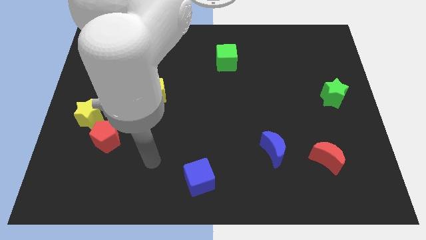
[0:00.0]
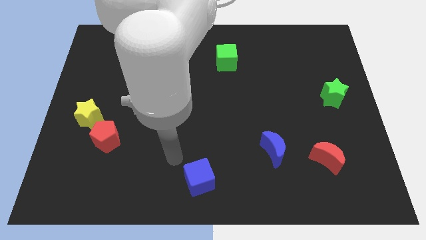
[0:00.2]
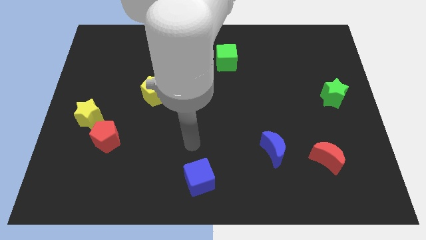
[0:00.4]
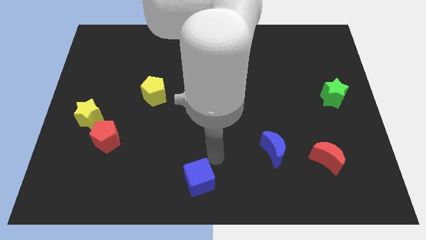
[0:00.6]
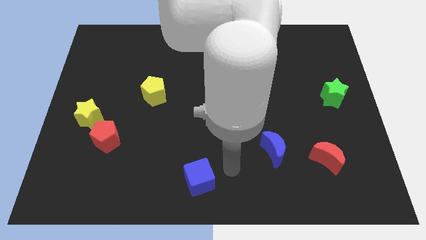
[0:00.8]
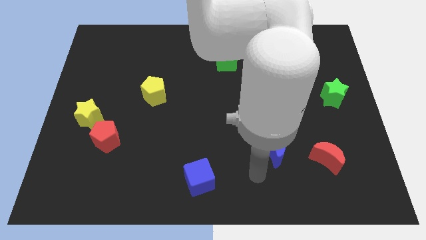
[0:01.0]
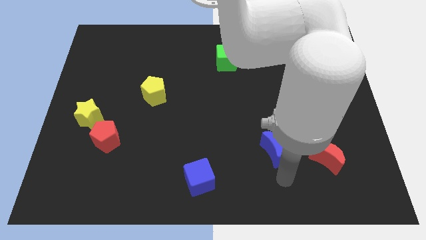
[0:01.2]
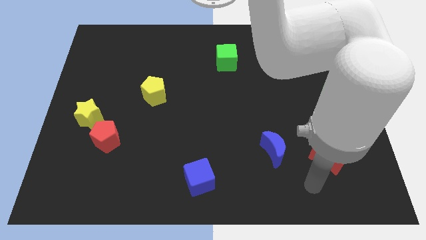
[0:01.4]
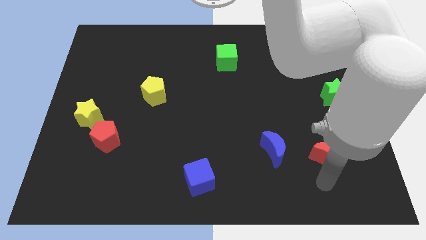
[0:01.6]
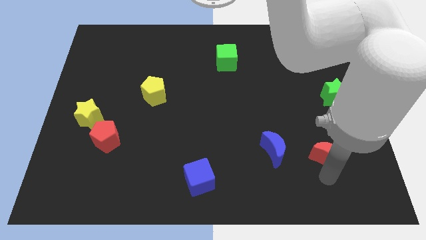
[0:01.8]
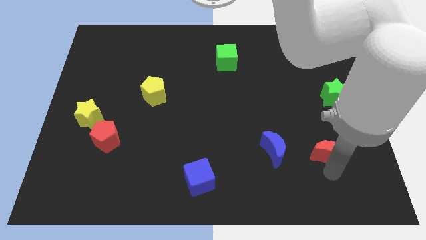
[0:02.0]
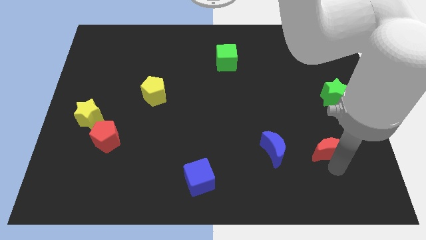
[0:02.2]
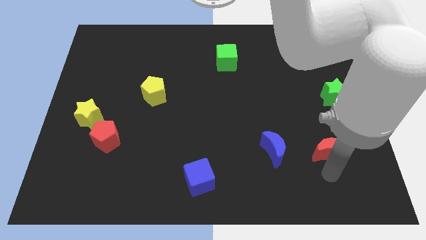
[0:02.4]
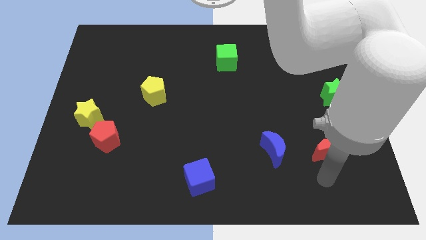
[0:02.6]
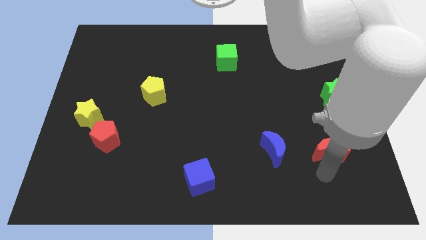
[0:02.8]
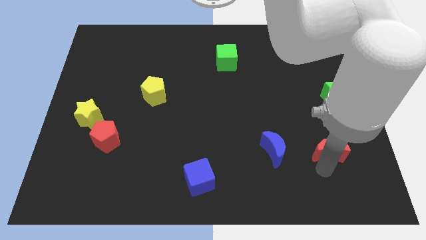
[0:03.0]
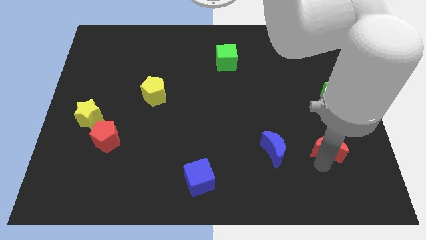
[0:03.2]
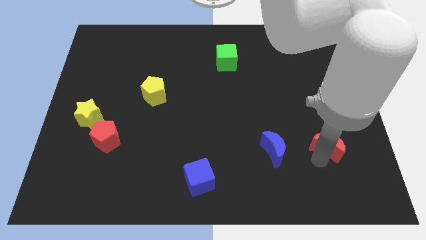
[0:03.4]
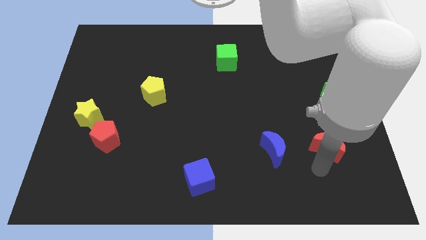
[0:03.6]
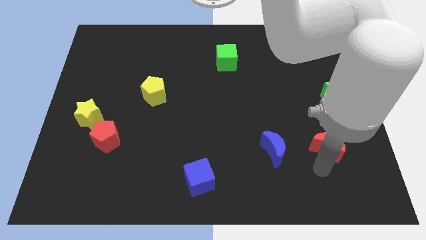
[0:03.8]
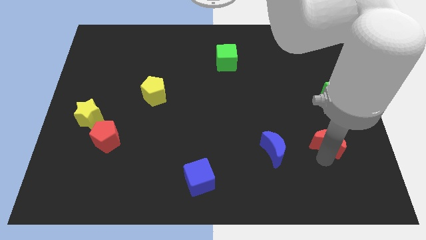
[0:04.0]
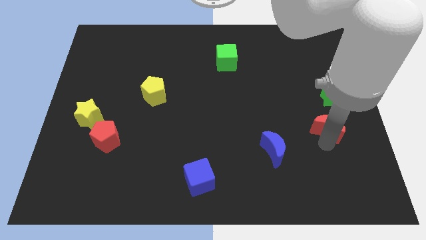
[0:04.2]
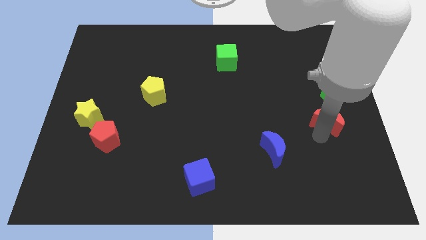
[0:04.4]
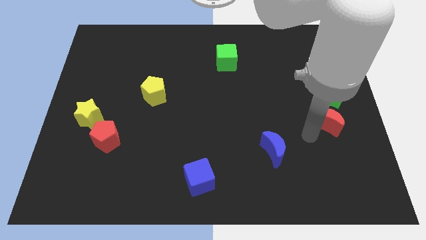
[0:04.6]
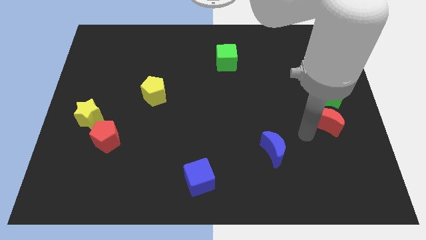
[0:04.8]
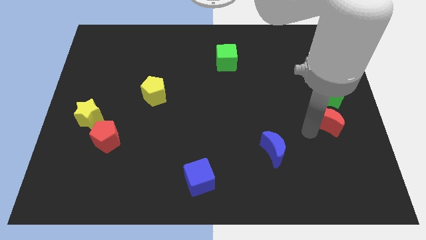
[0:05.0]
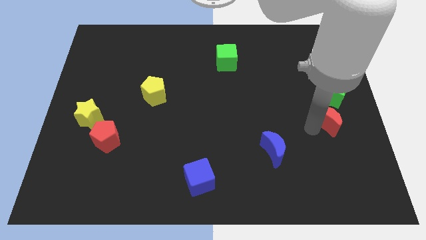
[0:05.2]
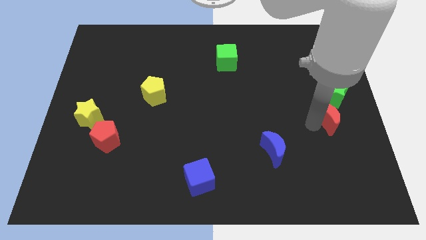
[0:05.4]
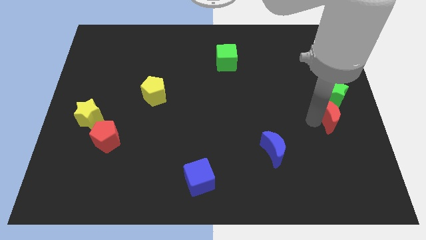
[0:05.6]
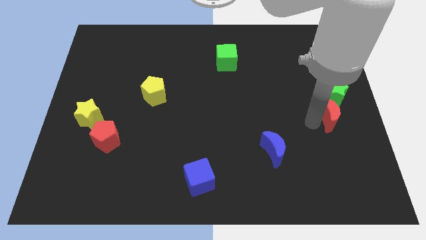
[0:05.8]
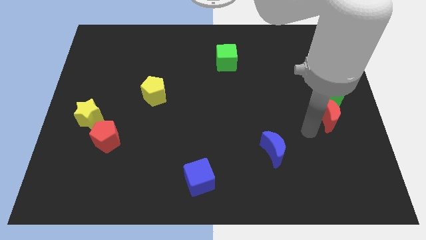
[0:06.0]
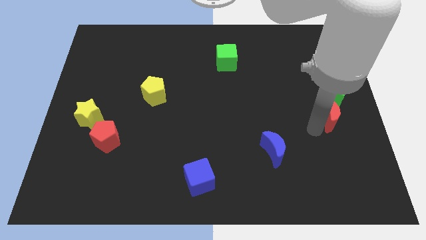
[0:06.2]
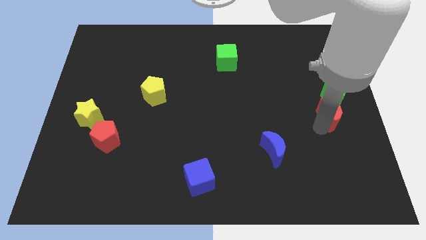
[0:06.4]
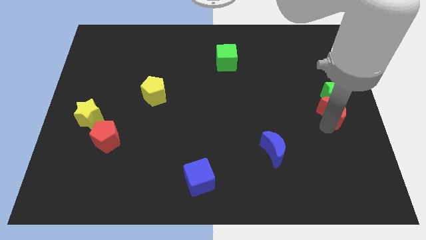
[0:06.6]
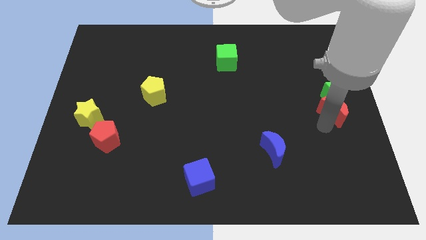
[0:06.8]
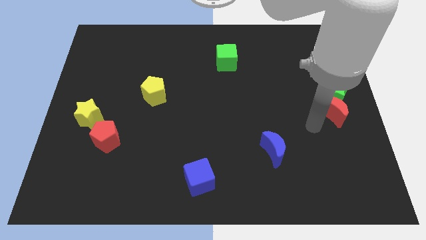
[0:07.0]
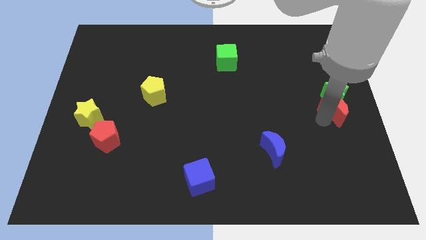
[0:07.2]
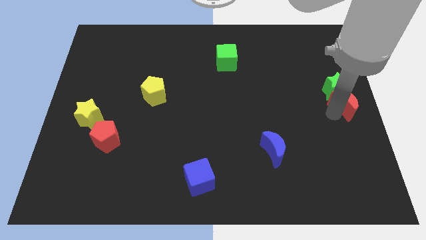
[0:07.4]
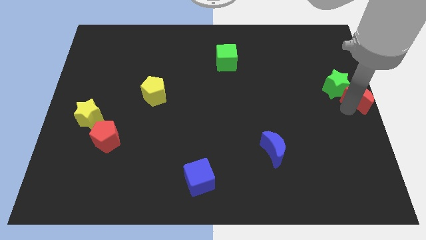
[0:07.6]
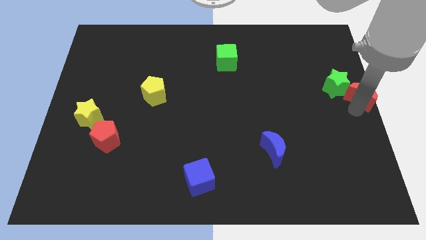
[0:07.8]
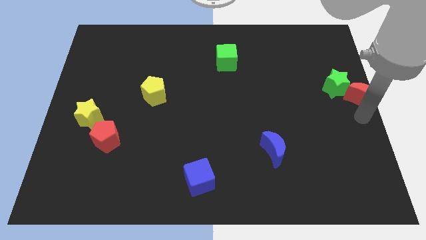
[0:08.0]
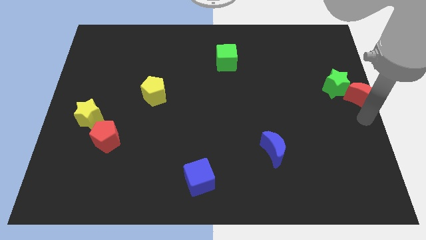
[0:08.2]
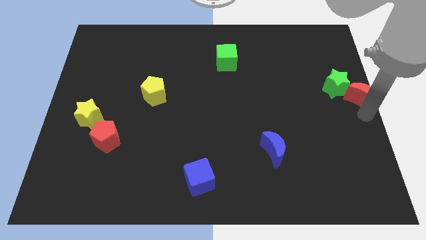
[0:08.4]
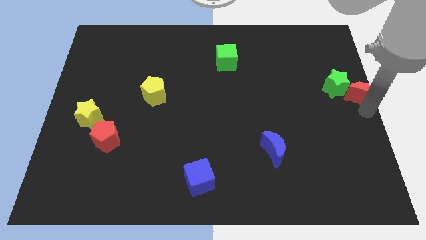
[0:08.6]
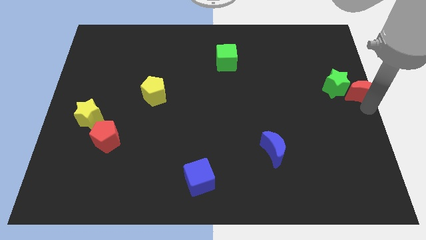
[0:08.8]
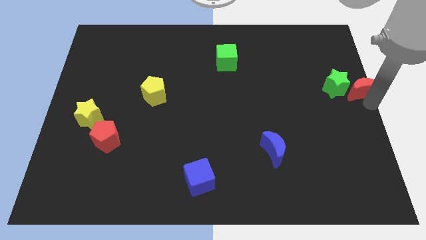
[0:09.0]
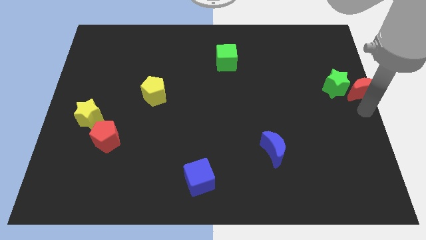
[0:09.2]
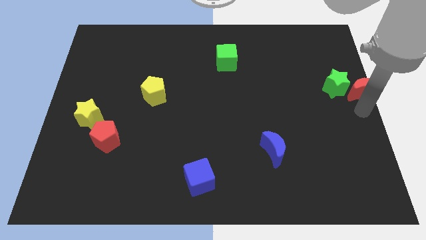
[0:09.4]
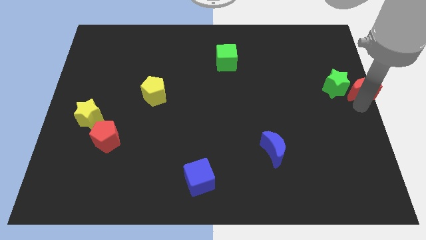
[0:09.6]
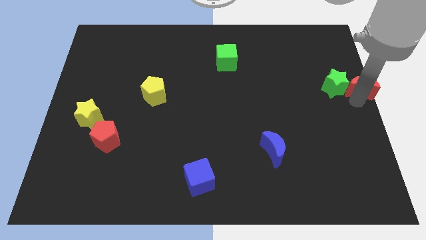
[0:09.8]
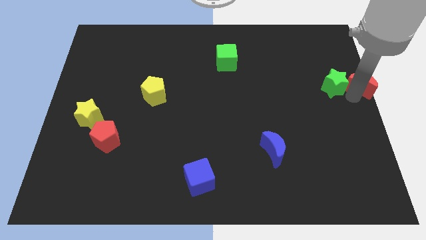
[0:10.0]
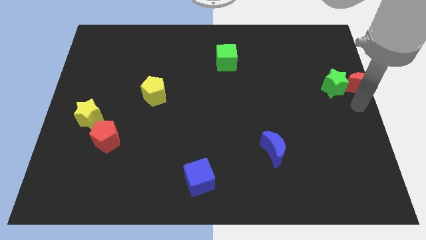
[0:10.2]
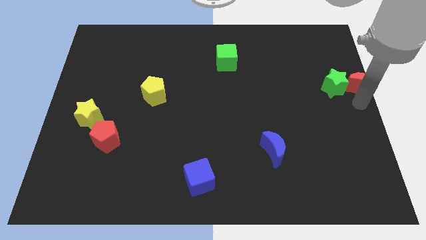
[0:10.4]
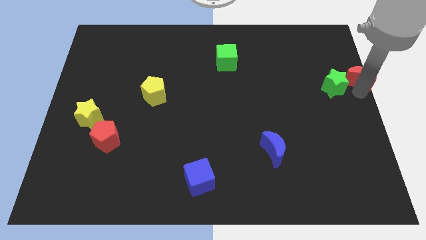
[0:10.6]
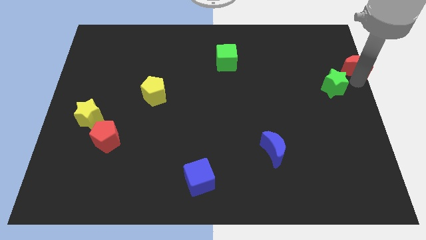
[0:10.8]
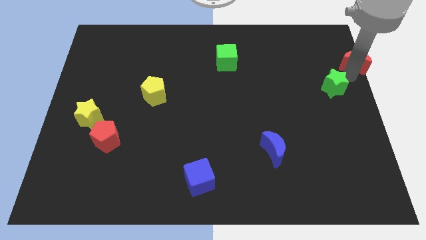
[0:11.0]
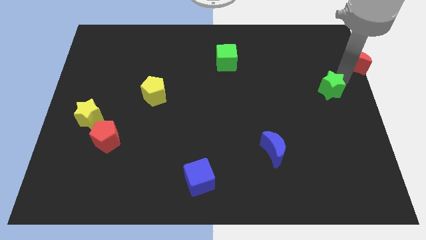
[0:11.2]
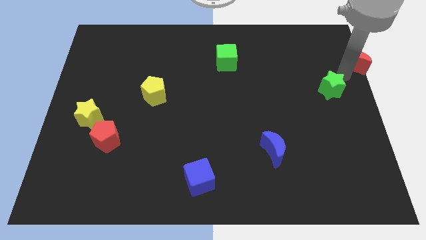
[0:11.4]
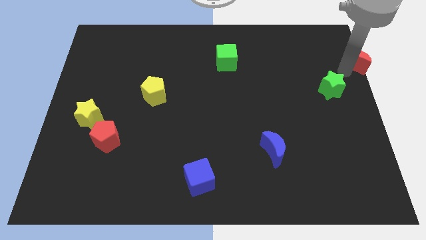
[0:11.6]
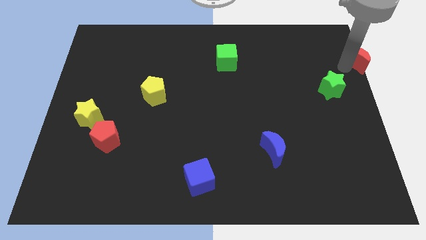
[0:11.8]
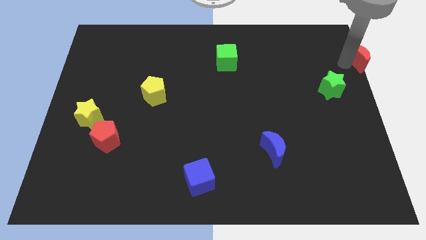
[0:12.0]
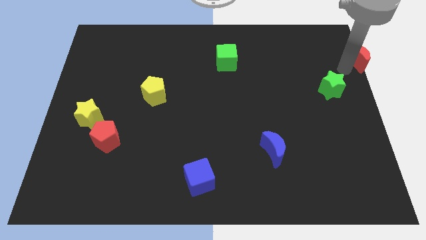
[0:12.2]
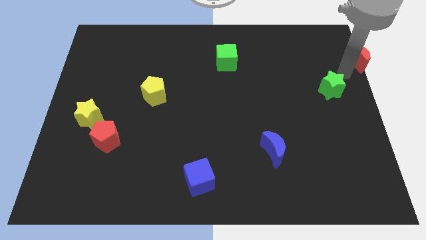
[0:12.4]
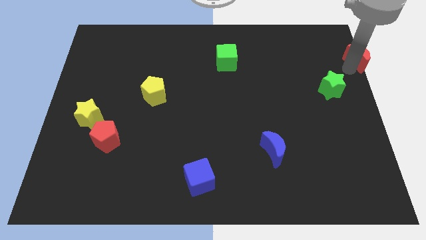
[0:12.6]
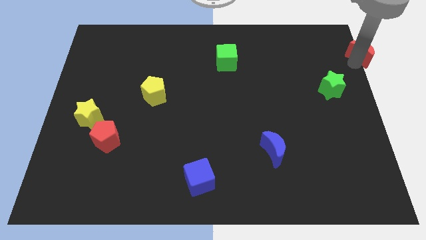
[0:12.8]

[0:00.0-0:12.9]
push the red moon to the upper right corner
